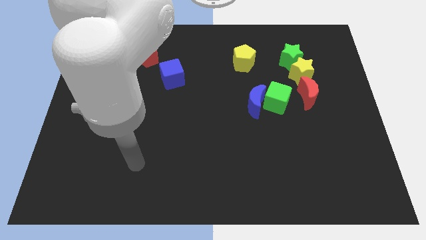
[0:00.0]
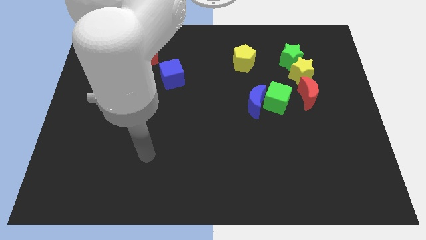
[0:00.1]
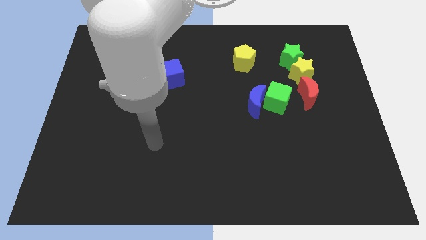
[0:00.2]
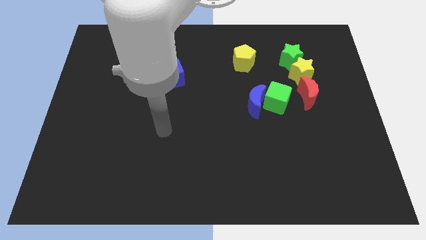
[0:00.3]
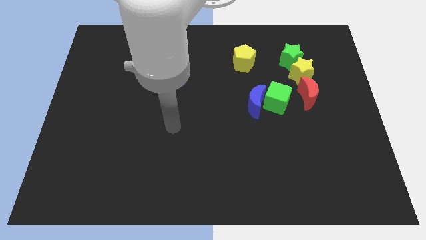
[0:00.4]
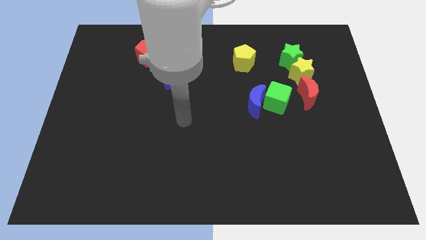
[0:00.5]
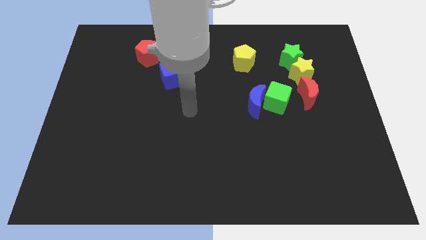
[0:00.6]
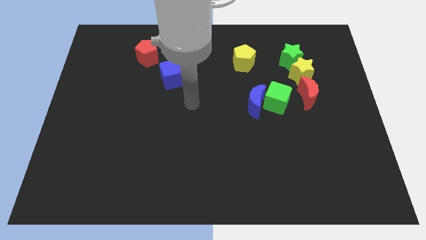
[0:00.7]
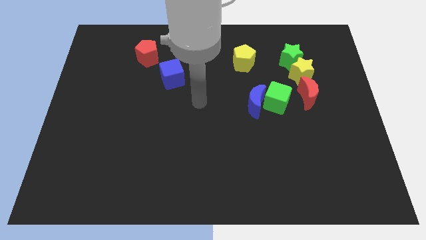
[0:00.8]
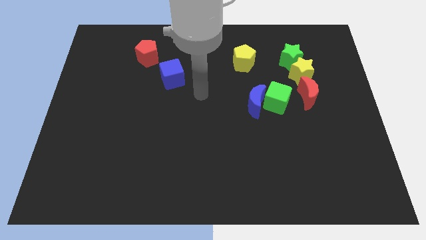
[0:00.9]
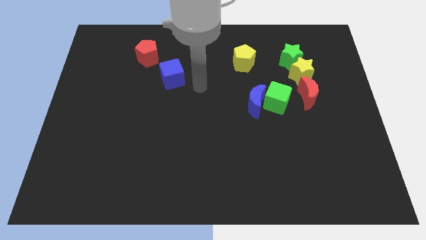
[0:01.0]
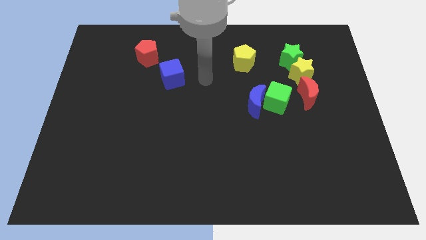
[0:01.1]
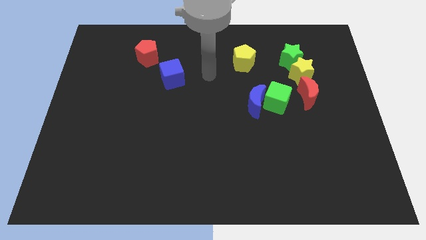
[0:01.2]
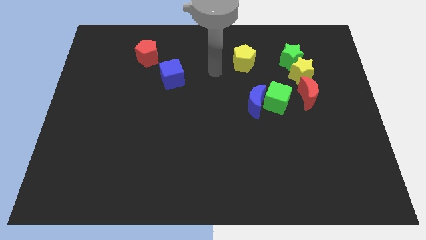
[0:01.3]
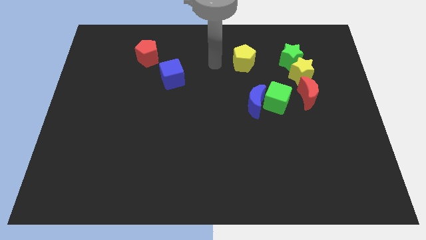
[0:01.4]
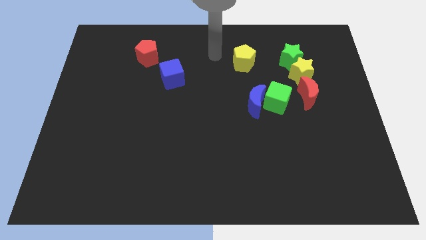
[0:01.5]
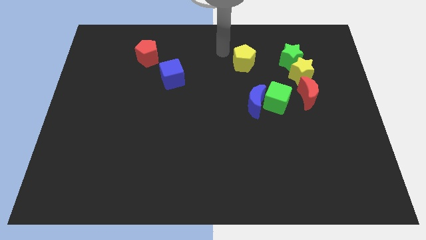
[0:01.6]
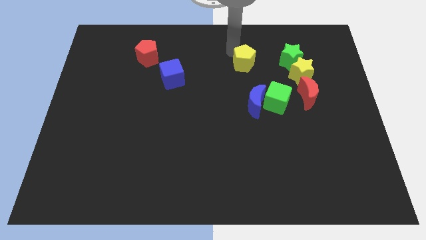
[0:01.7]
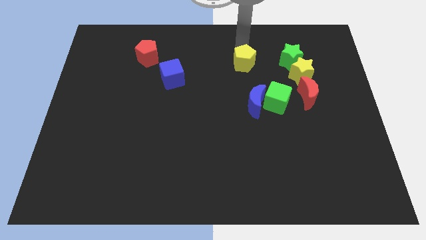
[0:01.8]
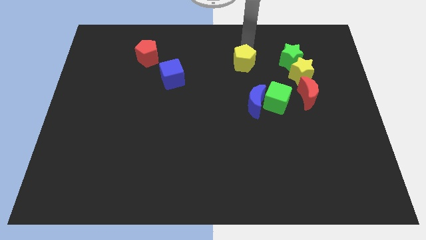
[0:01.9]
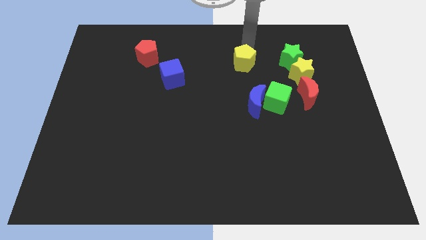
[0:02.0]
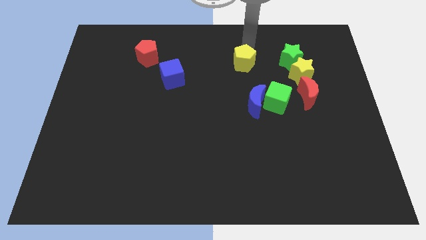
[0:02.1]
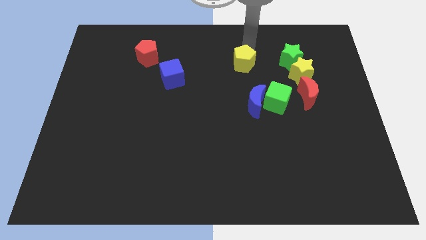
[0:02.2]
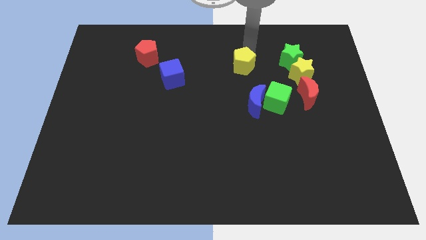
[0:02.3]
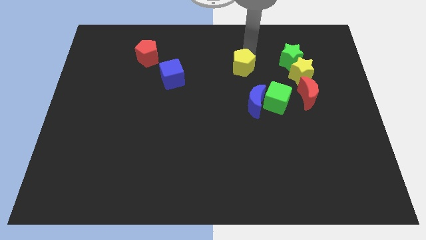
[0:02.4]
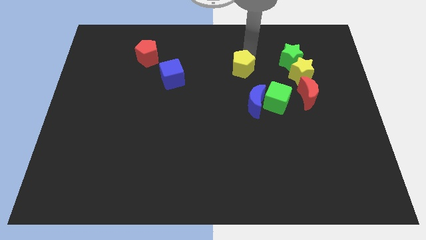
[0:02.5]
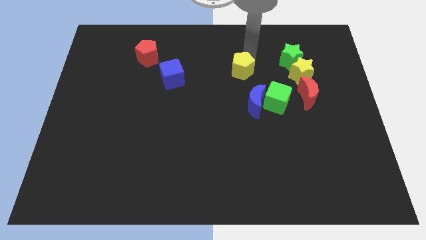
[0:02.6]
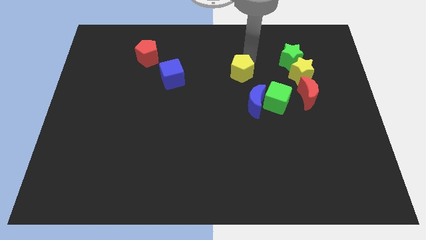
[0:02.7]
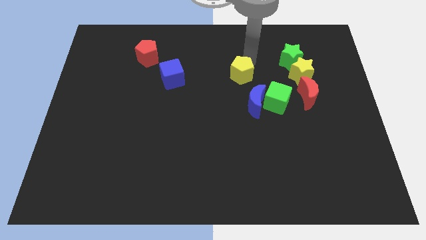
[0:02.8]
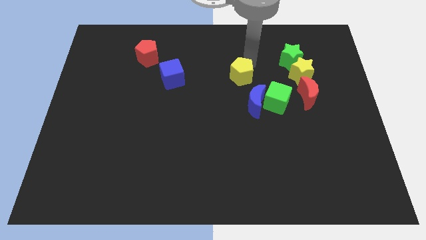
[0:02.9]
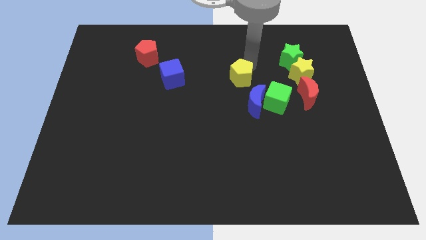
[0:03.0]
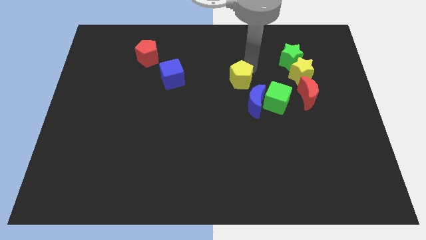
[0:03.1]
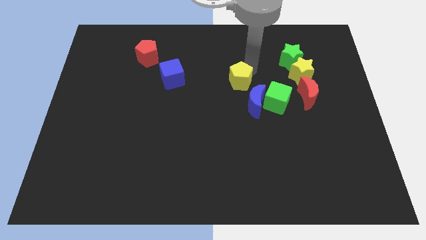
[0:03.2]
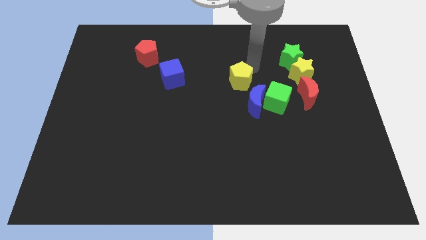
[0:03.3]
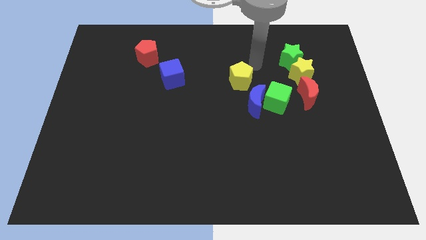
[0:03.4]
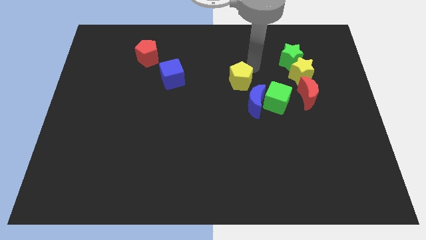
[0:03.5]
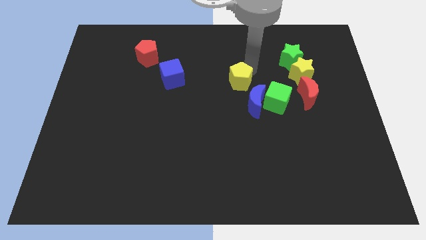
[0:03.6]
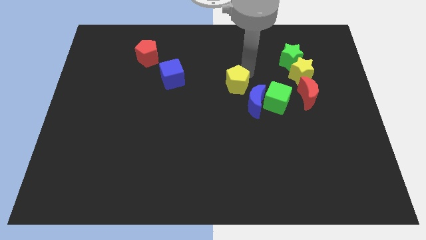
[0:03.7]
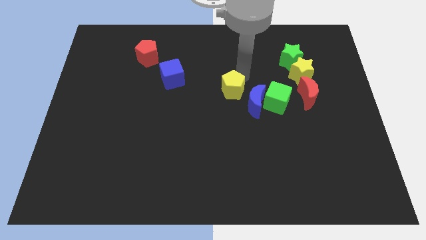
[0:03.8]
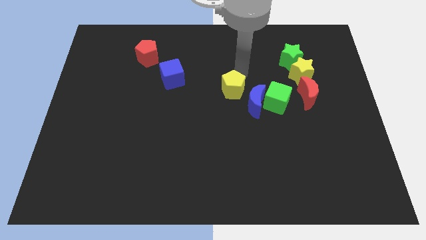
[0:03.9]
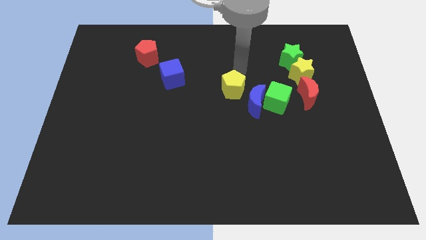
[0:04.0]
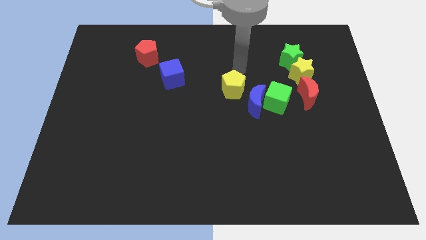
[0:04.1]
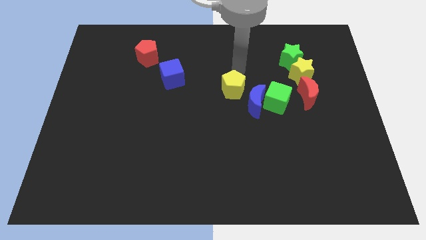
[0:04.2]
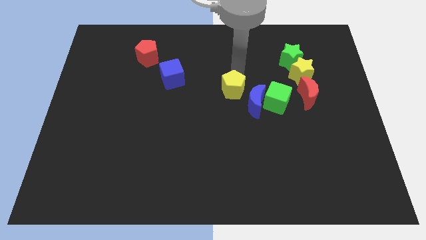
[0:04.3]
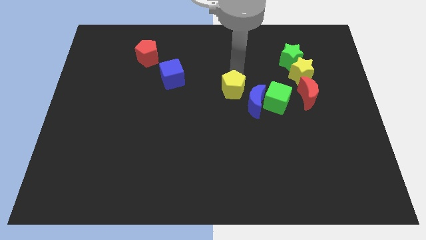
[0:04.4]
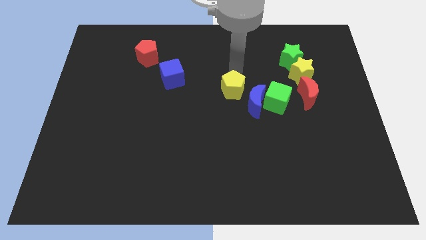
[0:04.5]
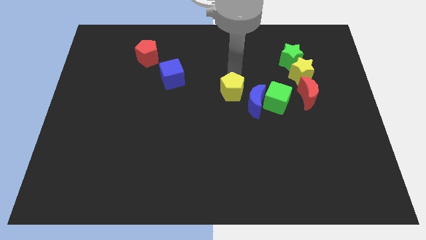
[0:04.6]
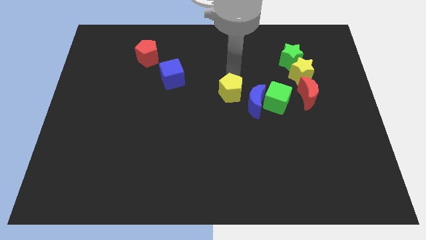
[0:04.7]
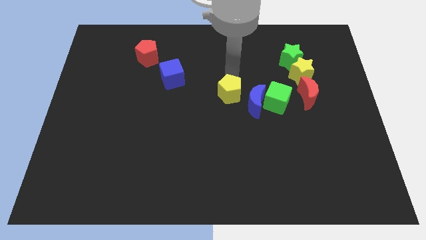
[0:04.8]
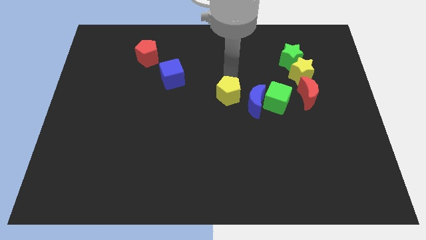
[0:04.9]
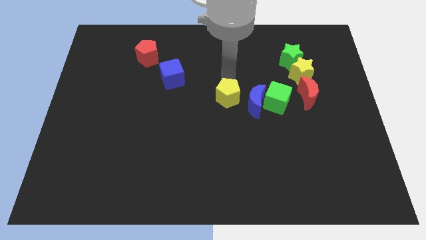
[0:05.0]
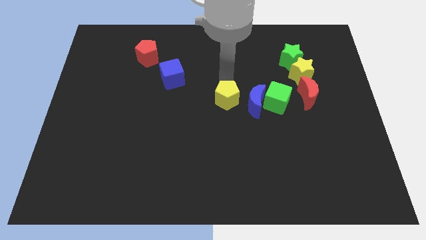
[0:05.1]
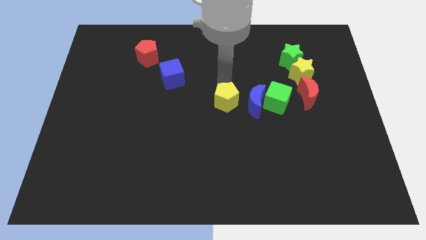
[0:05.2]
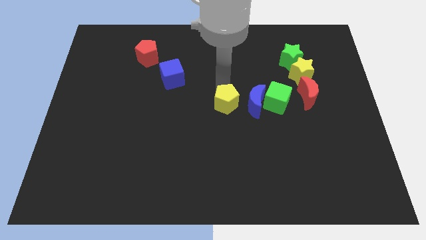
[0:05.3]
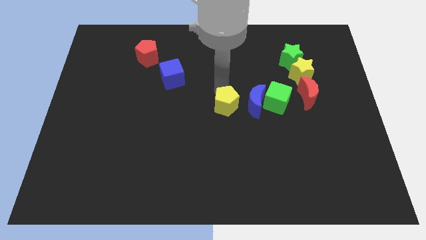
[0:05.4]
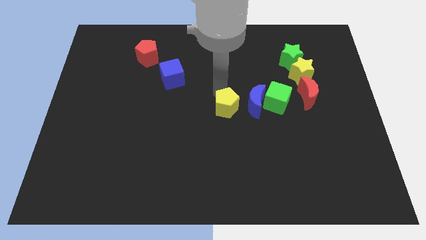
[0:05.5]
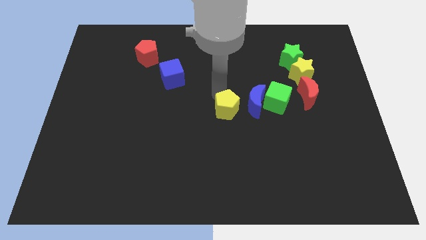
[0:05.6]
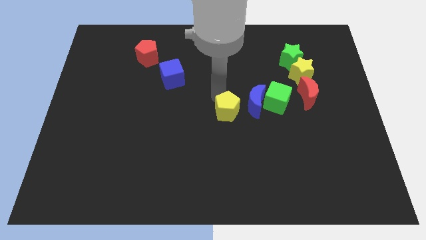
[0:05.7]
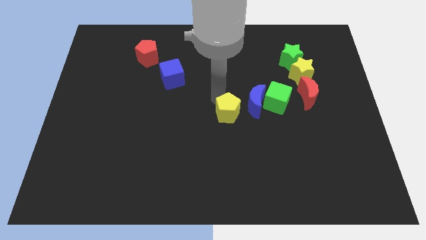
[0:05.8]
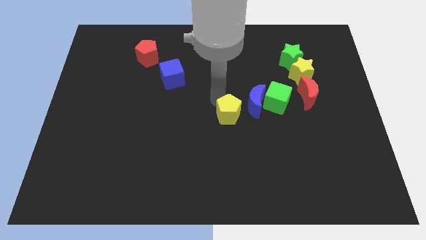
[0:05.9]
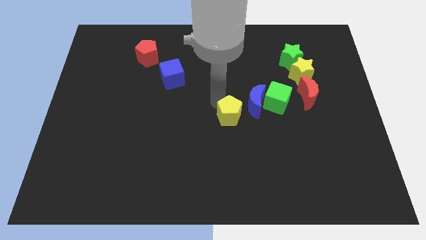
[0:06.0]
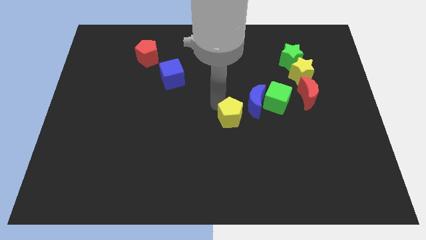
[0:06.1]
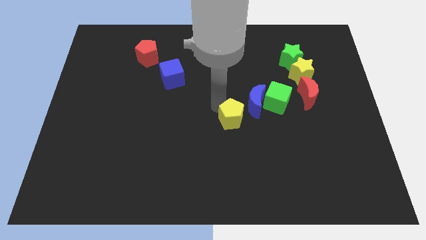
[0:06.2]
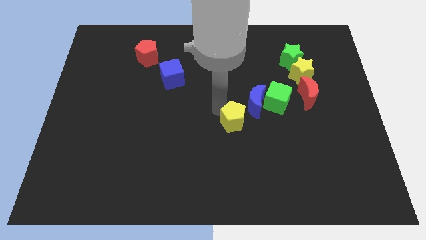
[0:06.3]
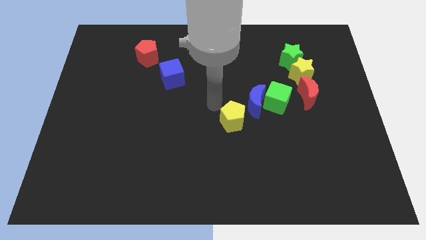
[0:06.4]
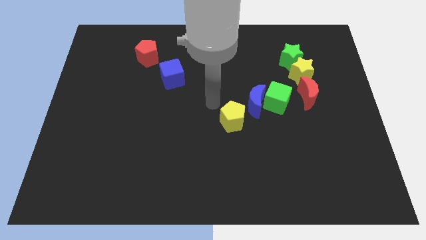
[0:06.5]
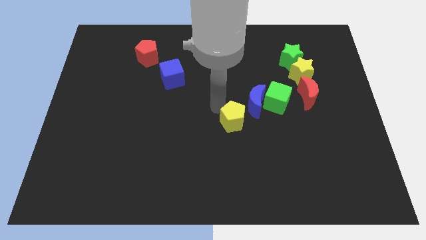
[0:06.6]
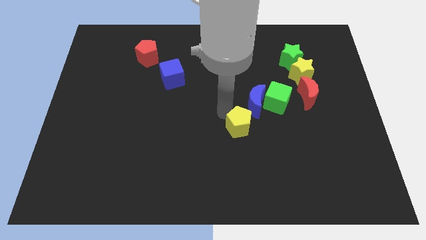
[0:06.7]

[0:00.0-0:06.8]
slide the yellow pentagon below the blue moon
